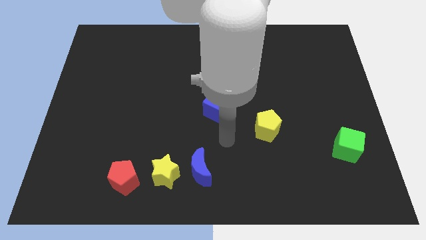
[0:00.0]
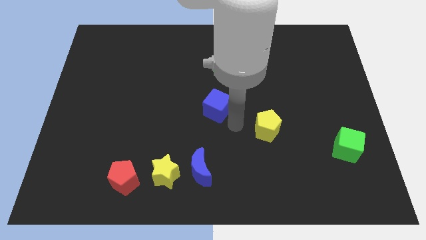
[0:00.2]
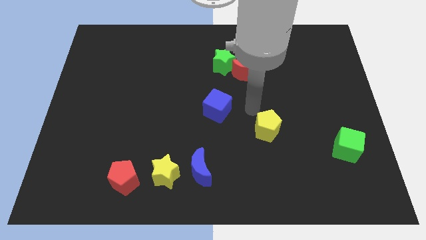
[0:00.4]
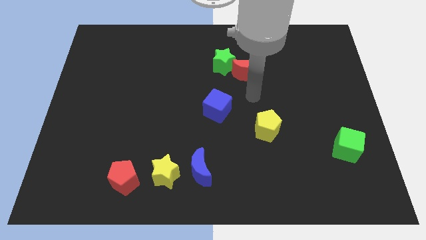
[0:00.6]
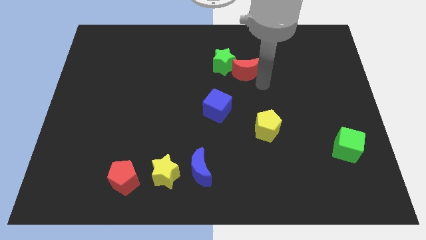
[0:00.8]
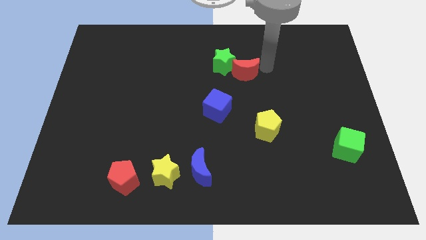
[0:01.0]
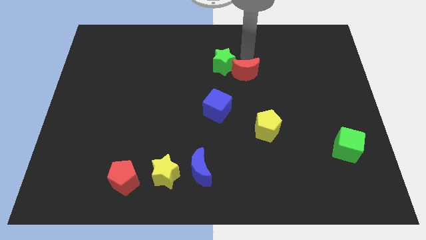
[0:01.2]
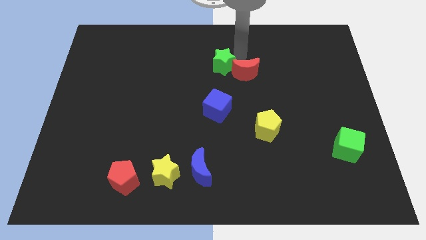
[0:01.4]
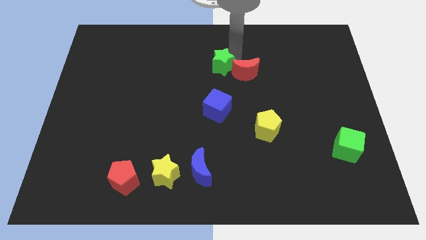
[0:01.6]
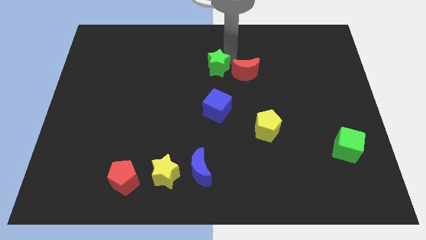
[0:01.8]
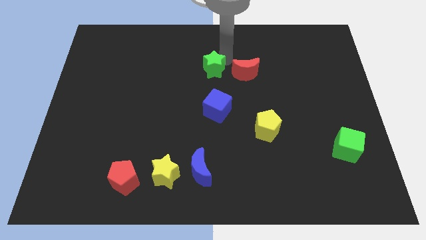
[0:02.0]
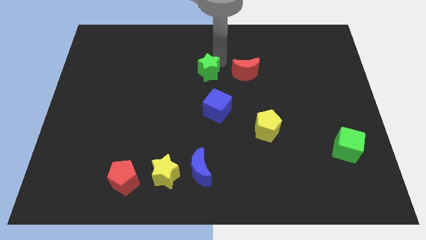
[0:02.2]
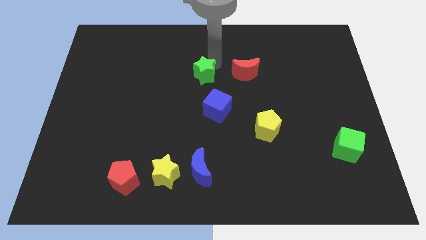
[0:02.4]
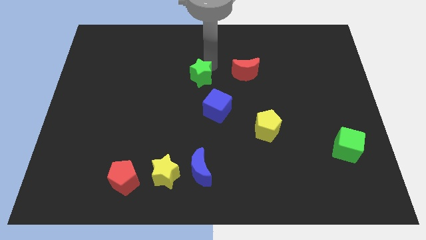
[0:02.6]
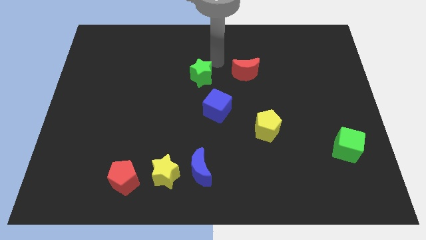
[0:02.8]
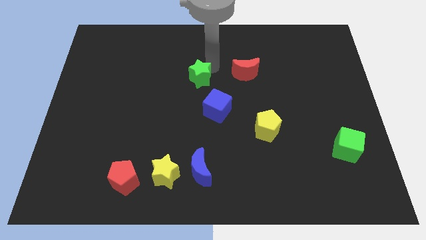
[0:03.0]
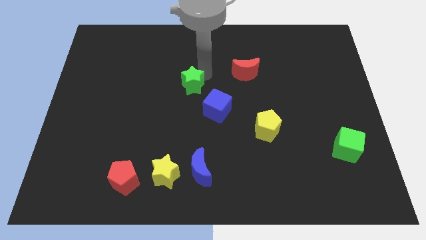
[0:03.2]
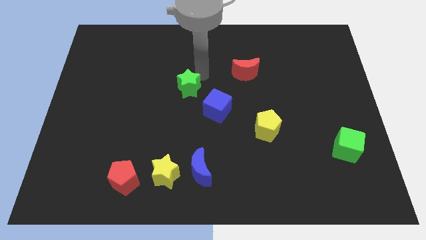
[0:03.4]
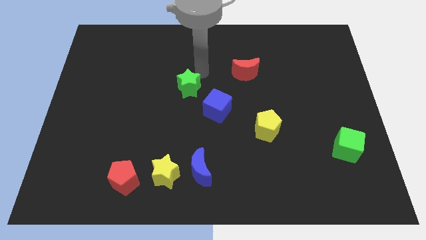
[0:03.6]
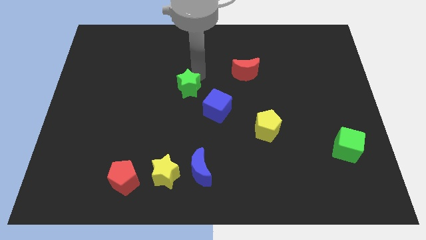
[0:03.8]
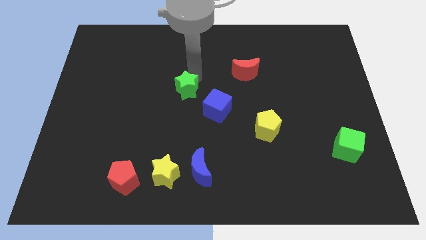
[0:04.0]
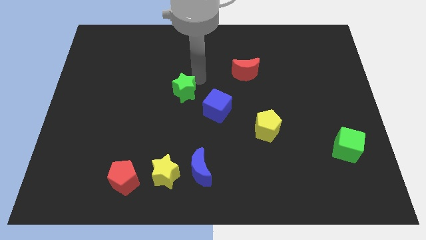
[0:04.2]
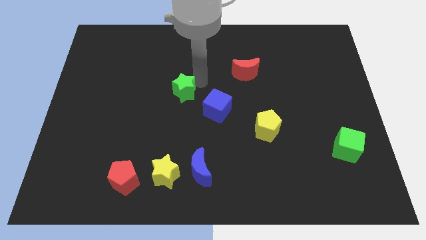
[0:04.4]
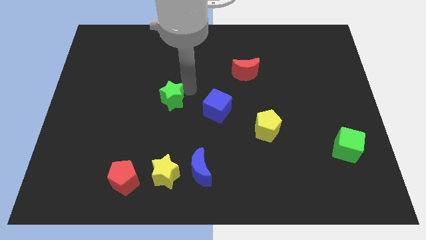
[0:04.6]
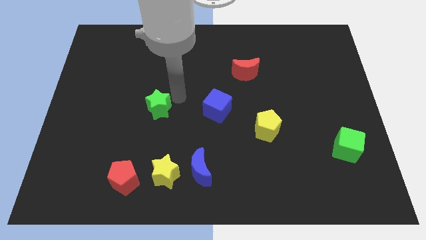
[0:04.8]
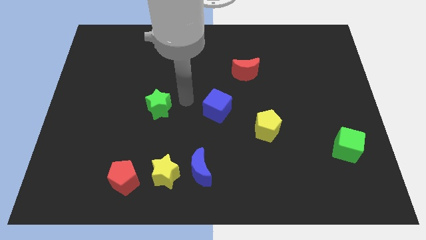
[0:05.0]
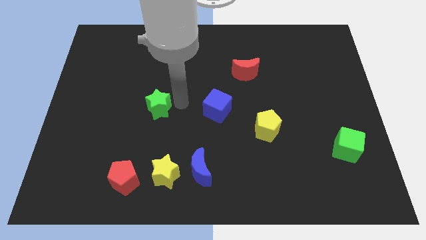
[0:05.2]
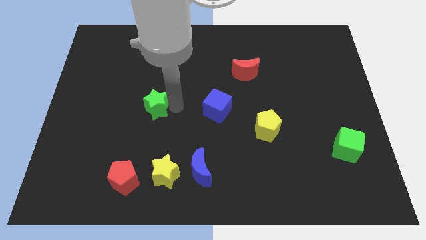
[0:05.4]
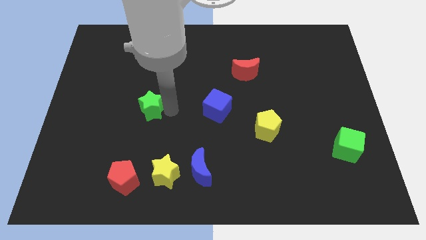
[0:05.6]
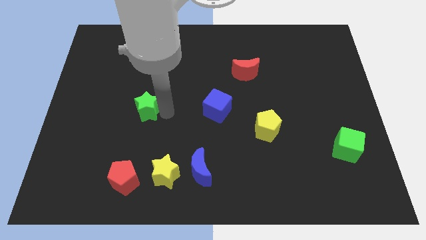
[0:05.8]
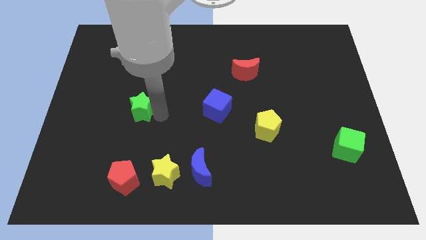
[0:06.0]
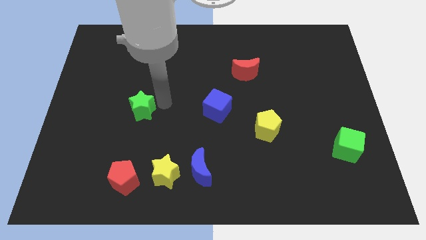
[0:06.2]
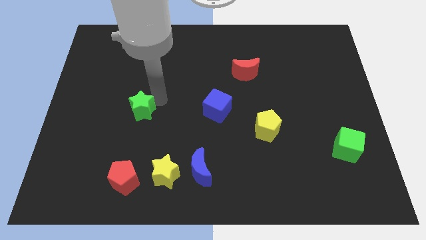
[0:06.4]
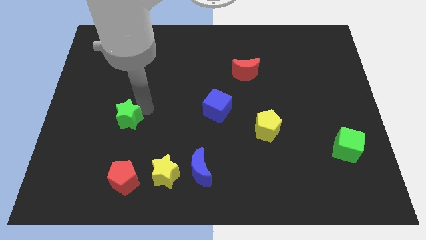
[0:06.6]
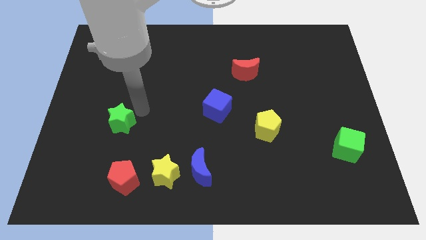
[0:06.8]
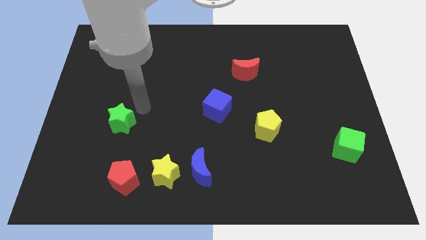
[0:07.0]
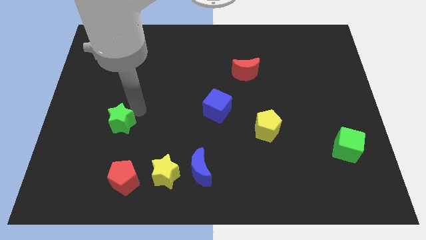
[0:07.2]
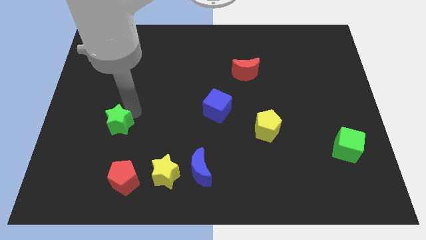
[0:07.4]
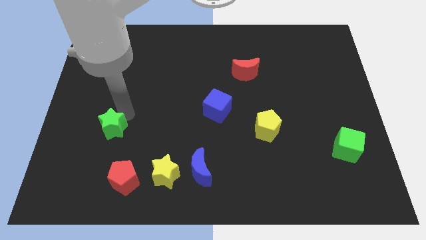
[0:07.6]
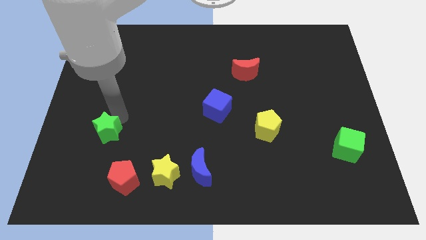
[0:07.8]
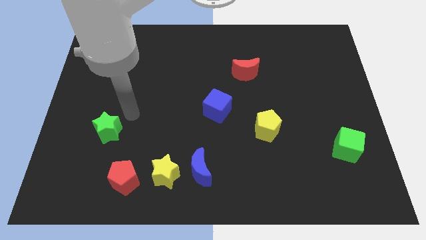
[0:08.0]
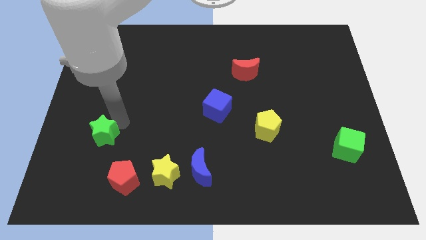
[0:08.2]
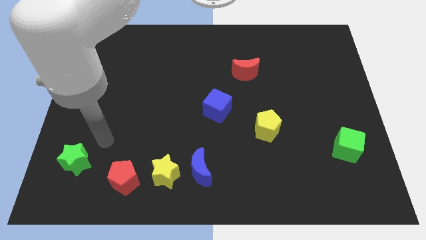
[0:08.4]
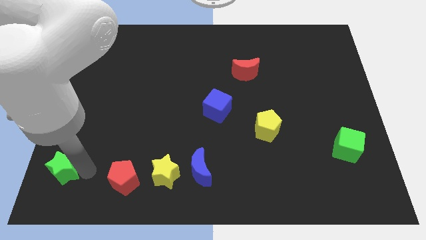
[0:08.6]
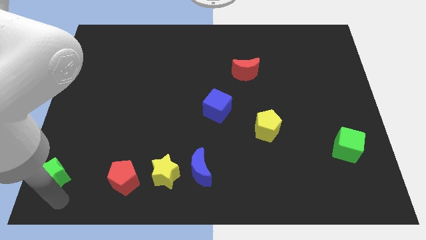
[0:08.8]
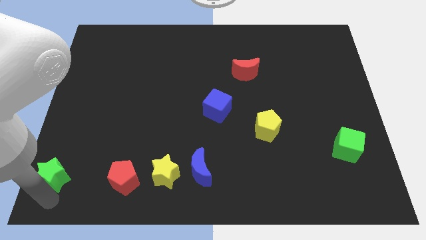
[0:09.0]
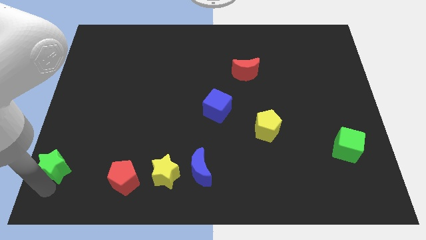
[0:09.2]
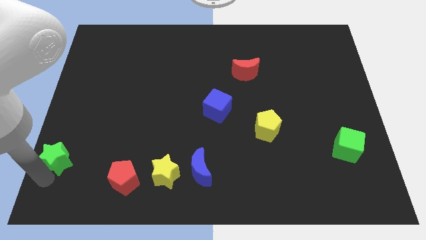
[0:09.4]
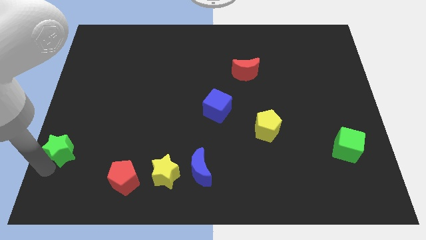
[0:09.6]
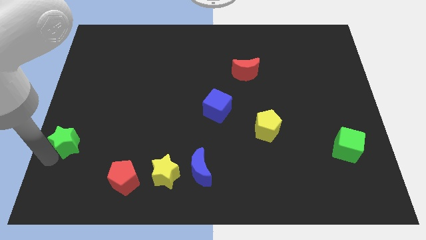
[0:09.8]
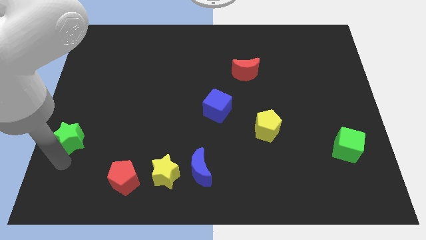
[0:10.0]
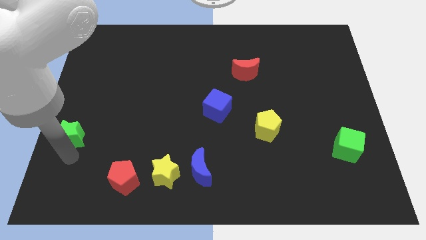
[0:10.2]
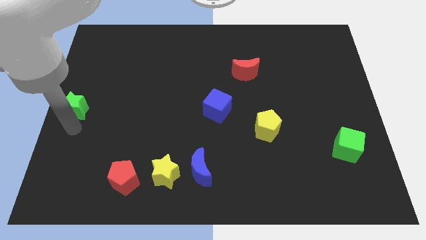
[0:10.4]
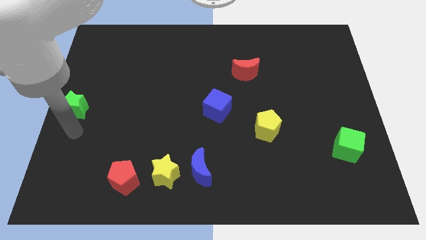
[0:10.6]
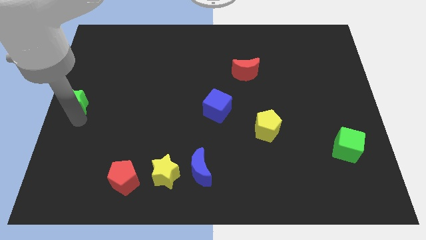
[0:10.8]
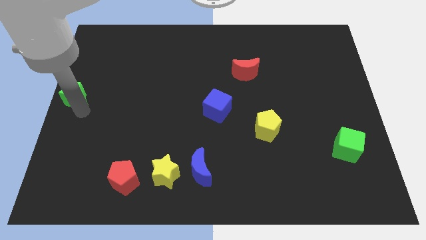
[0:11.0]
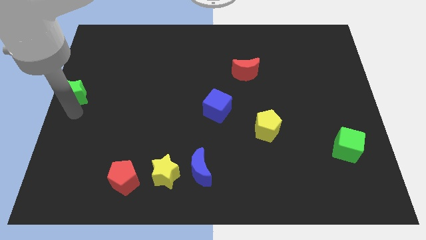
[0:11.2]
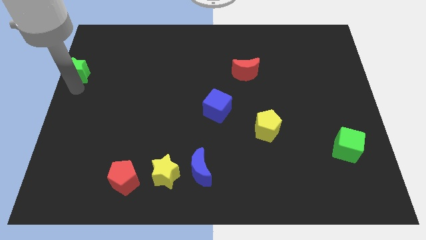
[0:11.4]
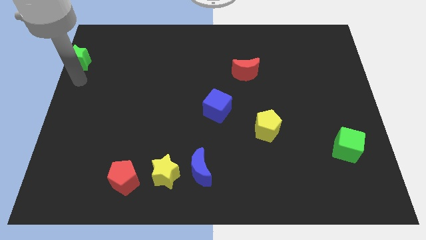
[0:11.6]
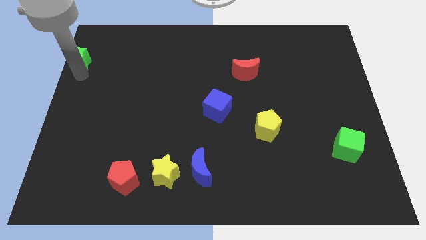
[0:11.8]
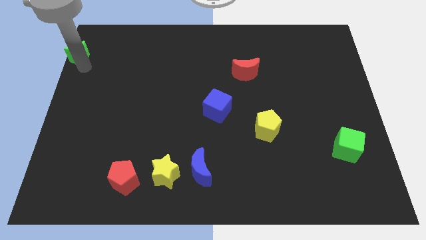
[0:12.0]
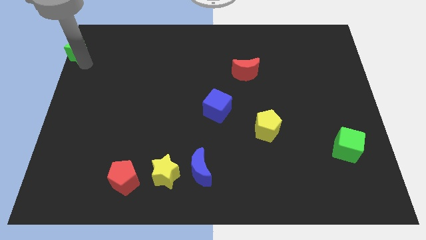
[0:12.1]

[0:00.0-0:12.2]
slide the green star to the top left of the board
